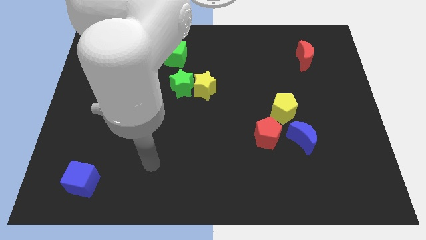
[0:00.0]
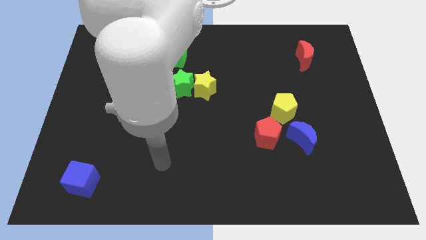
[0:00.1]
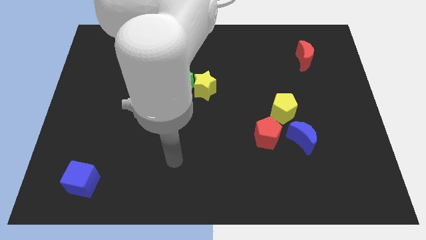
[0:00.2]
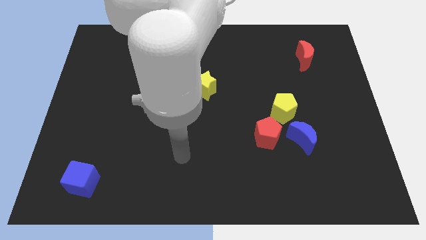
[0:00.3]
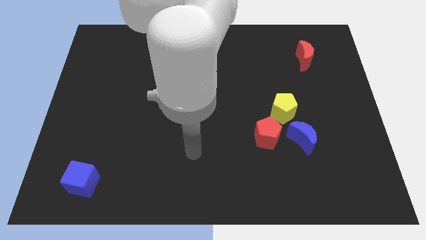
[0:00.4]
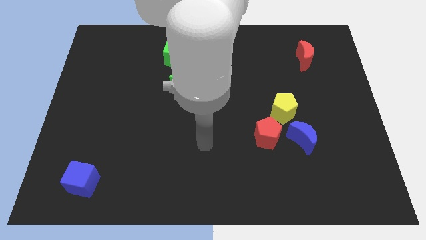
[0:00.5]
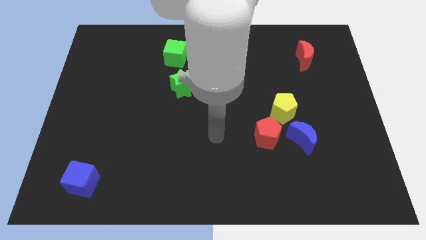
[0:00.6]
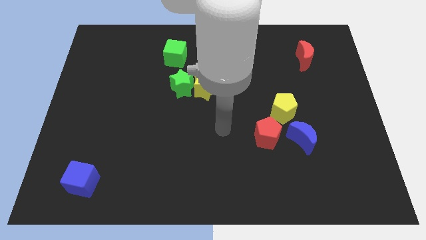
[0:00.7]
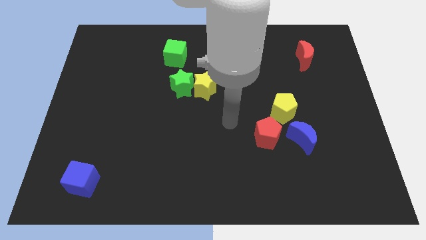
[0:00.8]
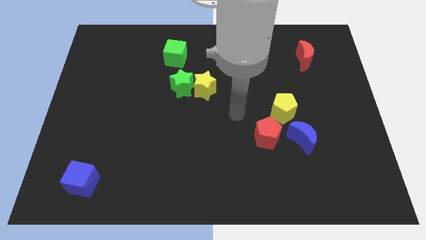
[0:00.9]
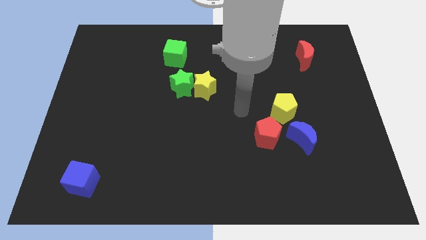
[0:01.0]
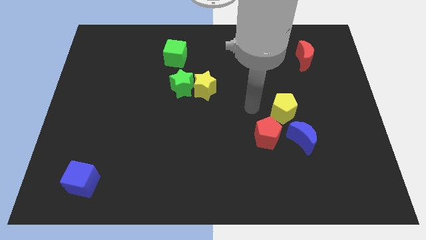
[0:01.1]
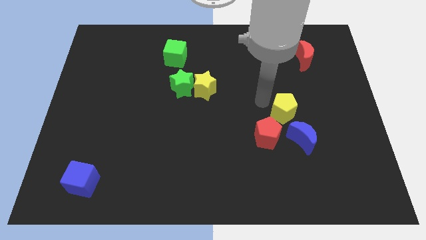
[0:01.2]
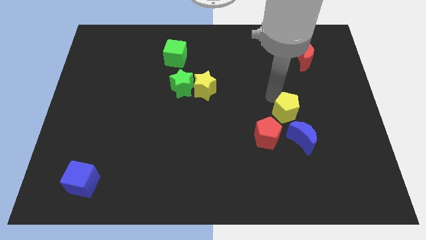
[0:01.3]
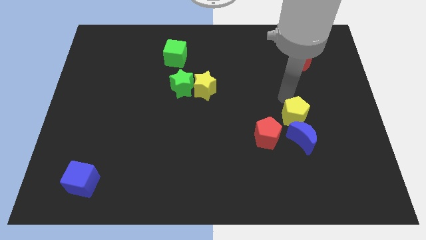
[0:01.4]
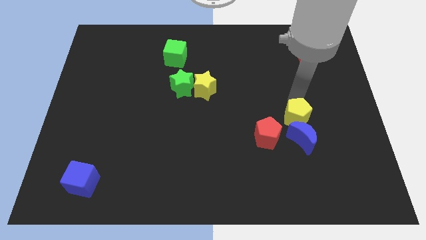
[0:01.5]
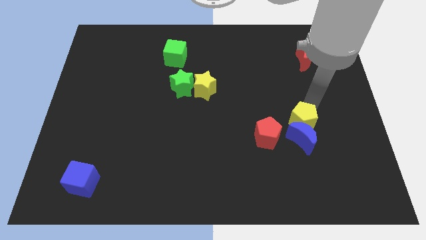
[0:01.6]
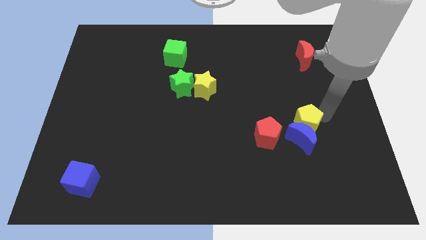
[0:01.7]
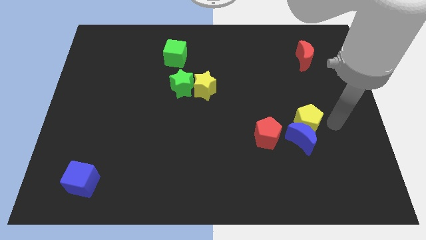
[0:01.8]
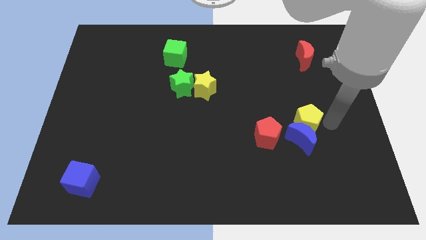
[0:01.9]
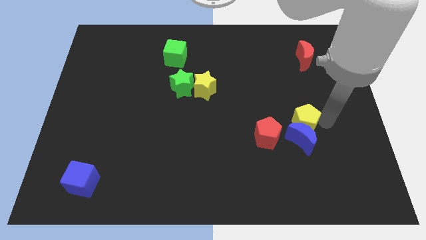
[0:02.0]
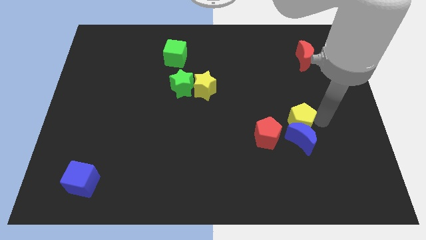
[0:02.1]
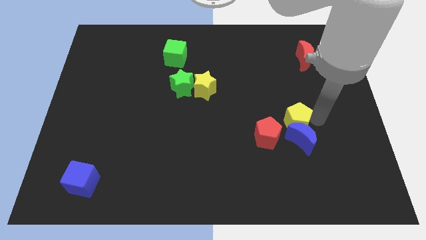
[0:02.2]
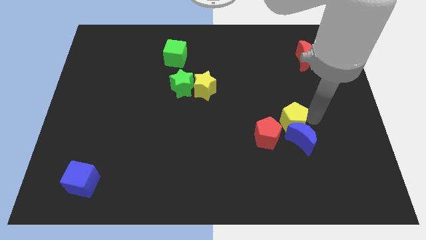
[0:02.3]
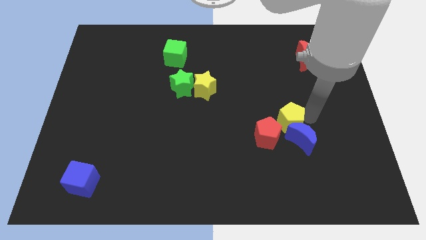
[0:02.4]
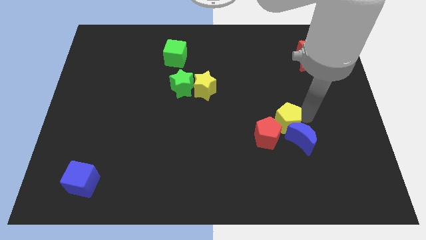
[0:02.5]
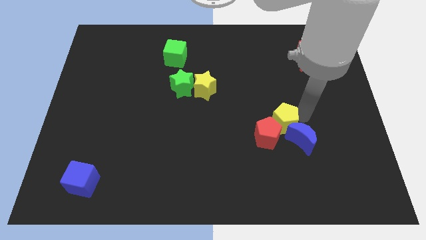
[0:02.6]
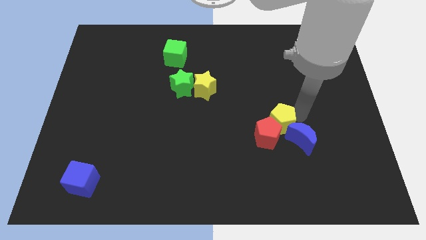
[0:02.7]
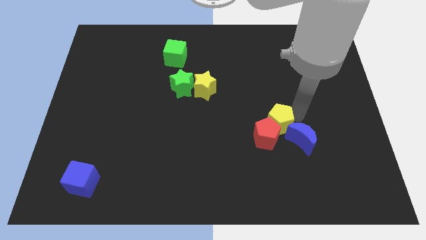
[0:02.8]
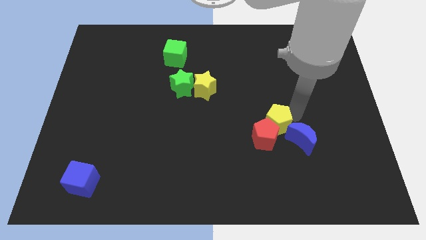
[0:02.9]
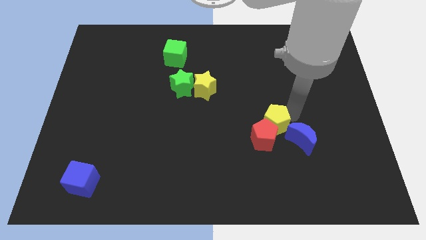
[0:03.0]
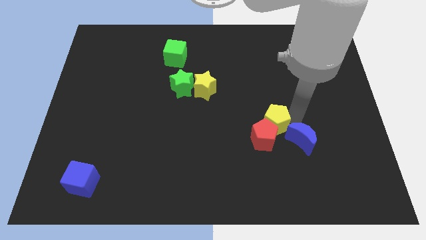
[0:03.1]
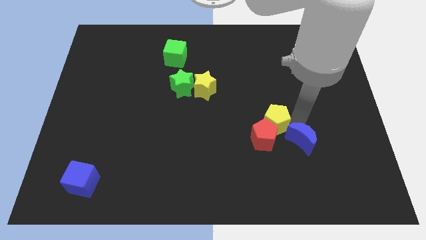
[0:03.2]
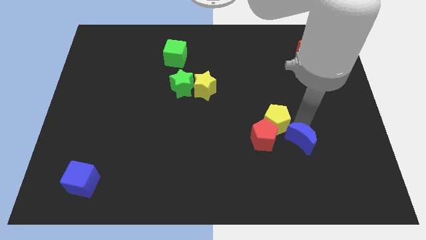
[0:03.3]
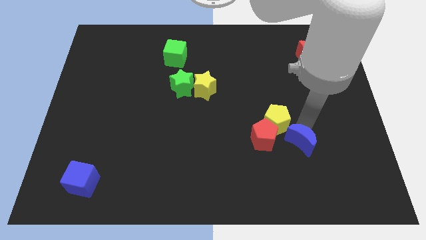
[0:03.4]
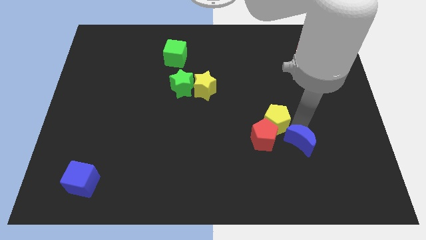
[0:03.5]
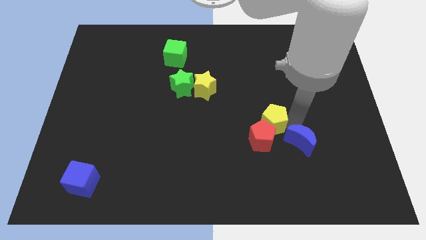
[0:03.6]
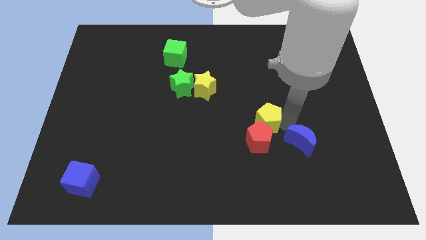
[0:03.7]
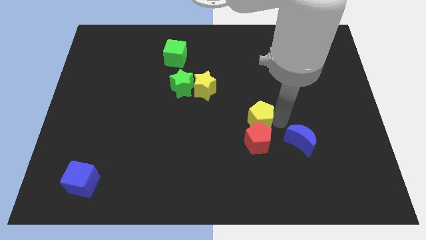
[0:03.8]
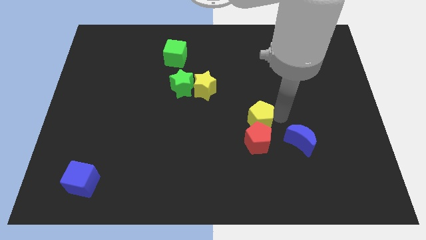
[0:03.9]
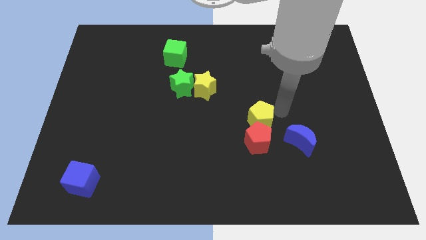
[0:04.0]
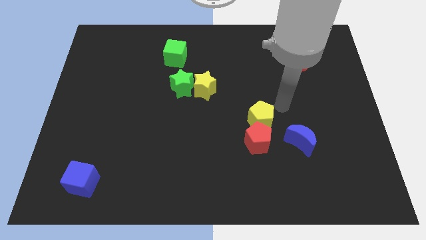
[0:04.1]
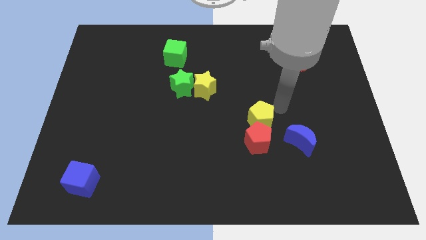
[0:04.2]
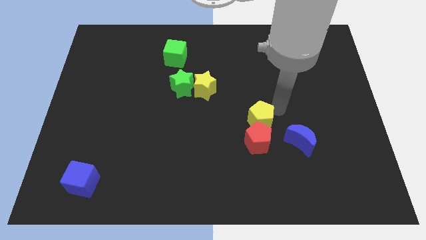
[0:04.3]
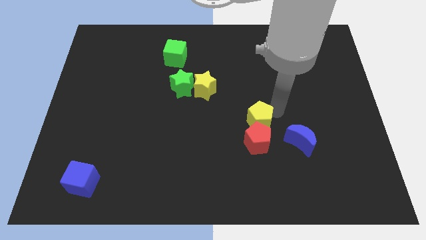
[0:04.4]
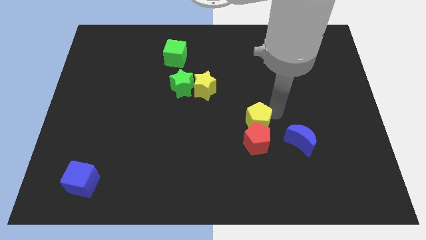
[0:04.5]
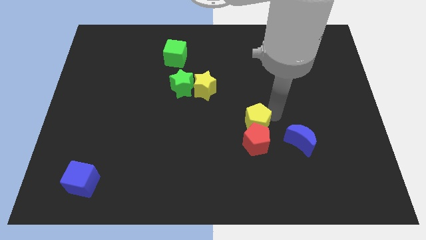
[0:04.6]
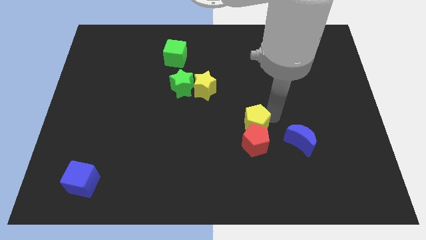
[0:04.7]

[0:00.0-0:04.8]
push the yellow pentagon diagonally downwards and to the left a bit

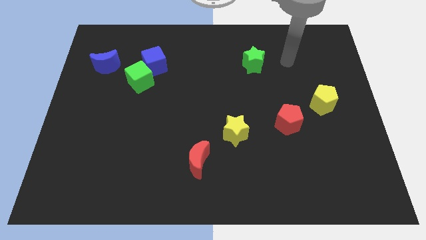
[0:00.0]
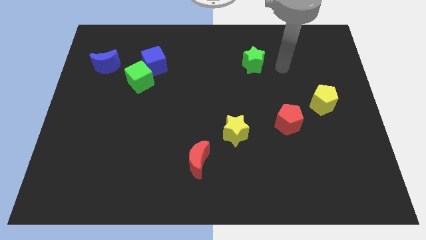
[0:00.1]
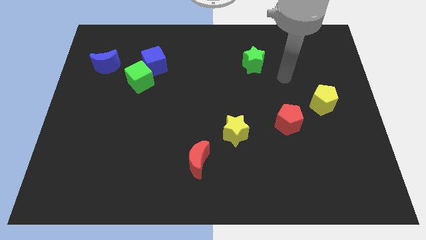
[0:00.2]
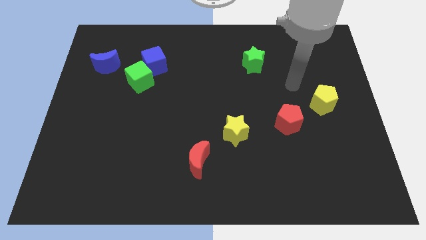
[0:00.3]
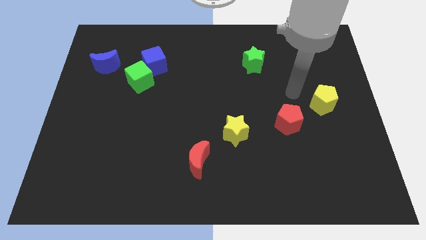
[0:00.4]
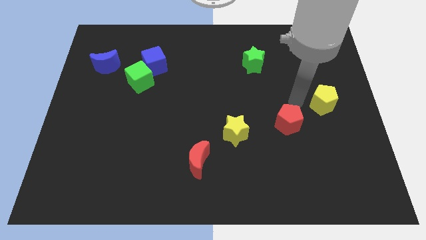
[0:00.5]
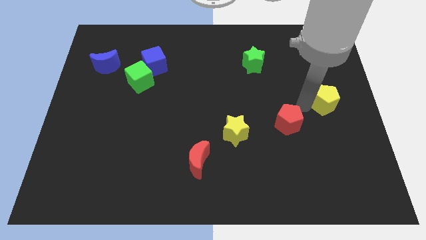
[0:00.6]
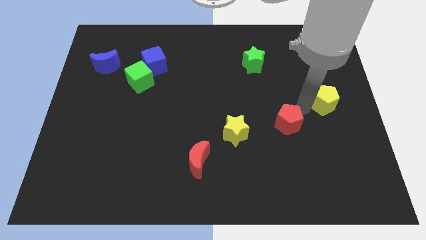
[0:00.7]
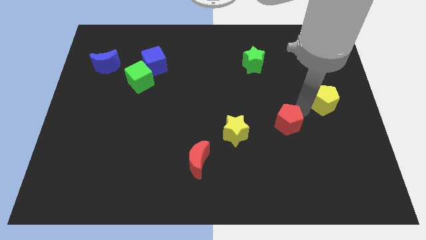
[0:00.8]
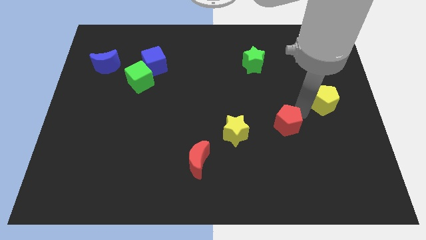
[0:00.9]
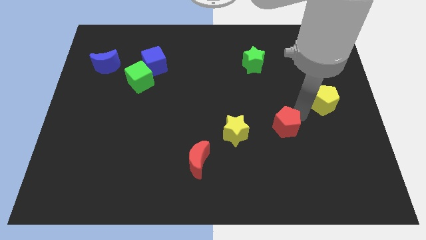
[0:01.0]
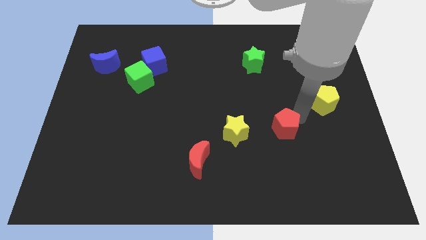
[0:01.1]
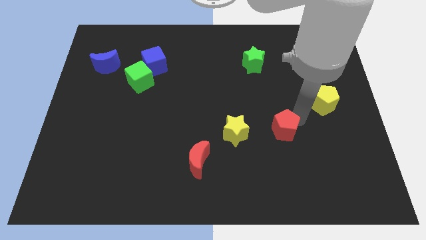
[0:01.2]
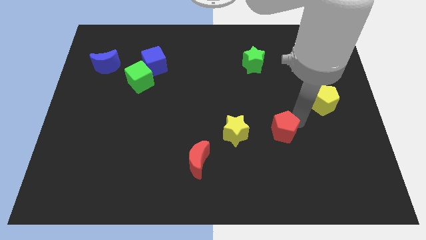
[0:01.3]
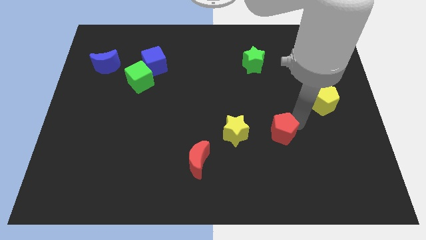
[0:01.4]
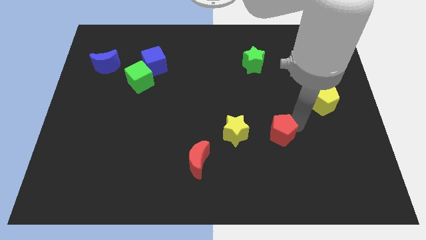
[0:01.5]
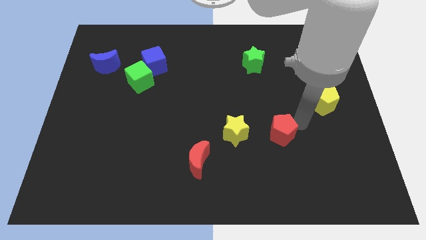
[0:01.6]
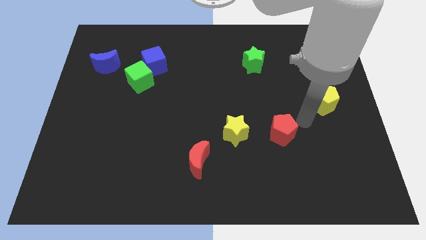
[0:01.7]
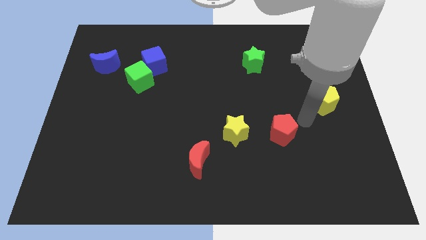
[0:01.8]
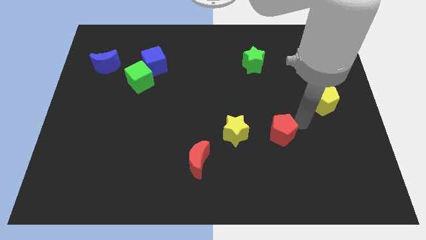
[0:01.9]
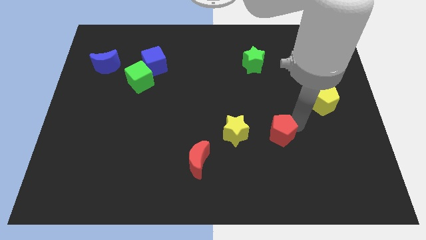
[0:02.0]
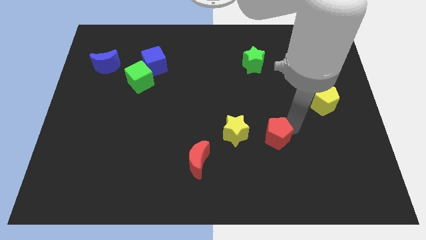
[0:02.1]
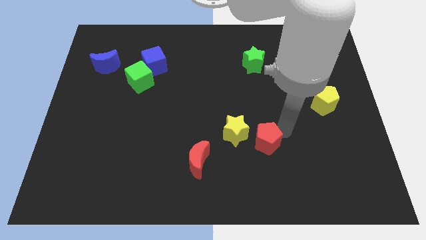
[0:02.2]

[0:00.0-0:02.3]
move the red pentagon a little bit down and then left

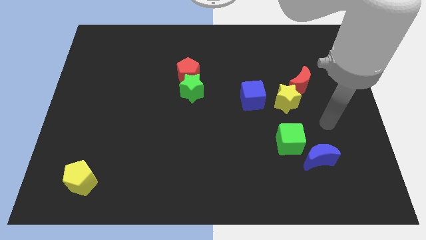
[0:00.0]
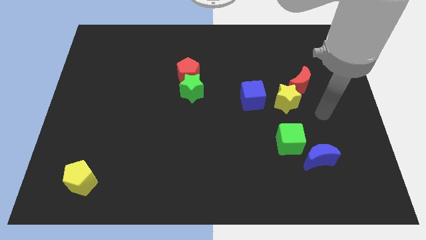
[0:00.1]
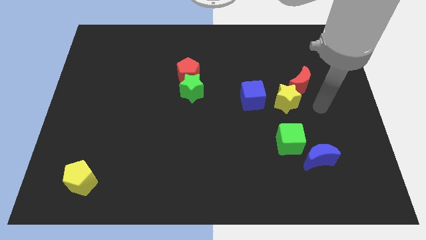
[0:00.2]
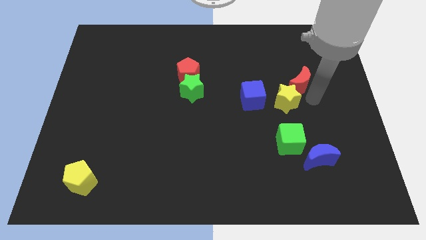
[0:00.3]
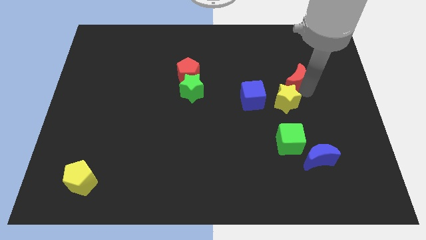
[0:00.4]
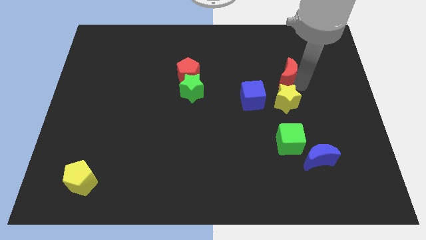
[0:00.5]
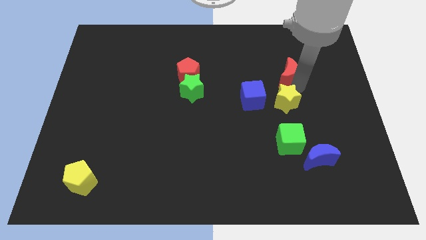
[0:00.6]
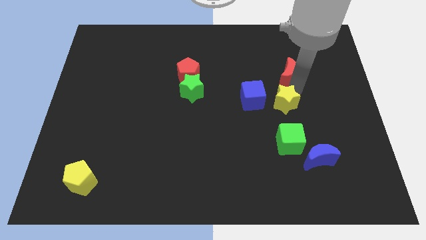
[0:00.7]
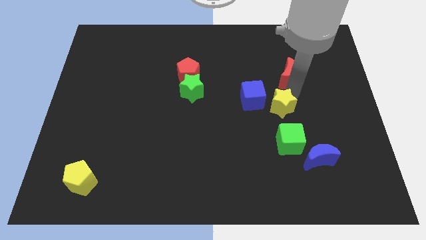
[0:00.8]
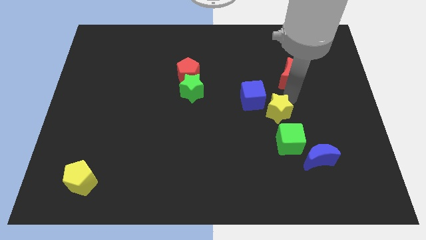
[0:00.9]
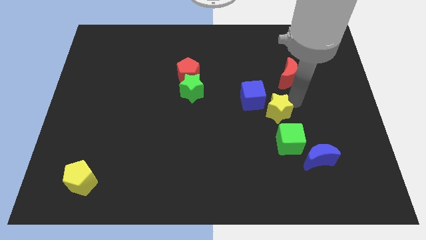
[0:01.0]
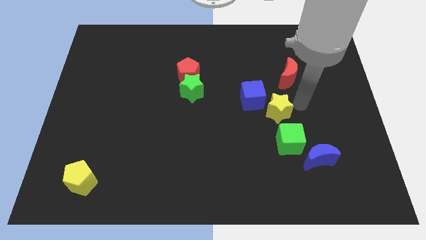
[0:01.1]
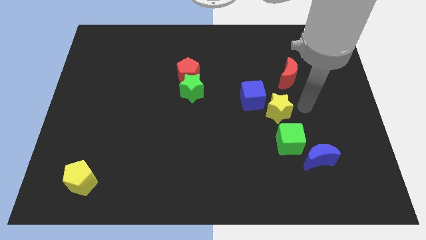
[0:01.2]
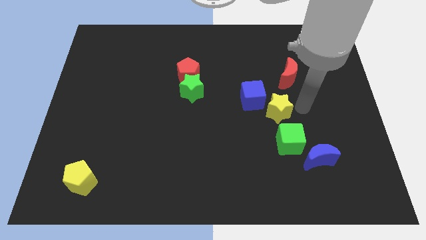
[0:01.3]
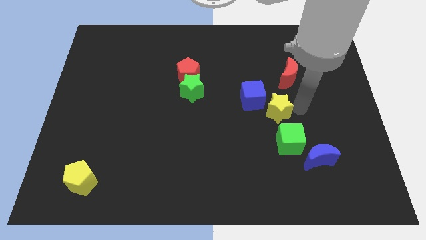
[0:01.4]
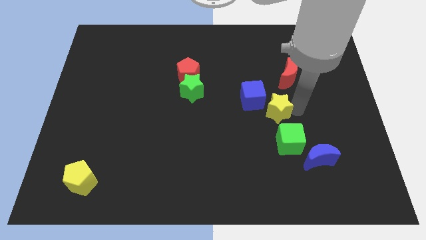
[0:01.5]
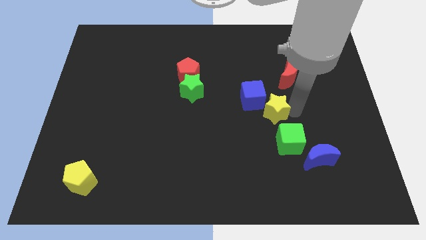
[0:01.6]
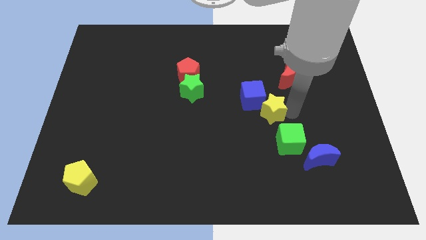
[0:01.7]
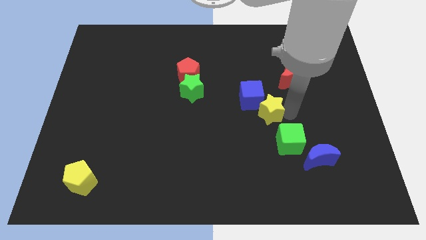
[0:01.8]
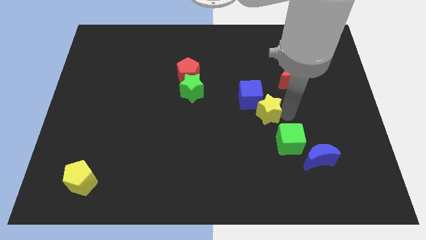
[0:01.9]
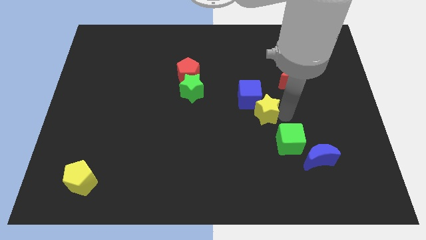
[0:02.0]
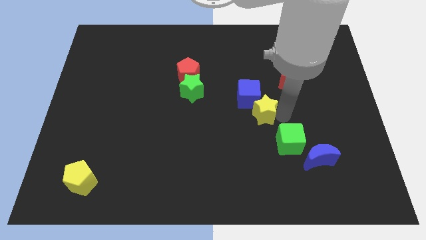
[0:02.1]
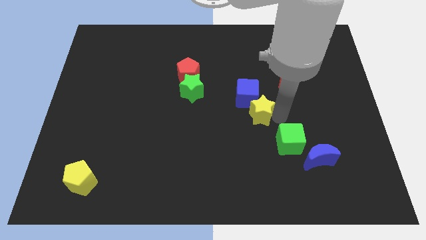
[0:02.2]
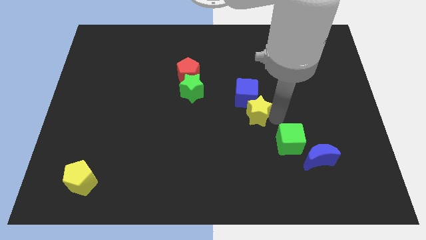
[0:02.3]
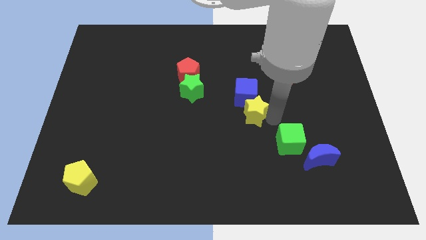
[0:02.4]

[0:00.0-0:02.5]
move the yellow star somewhat left
